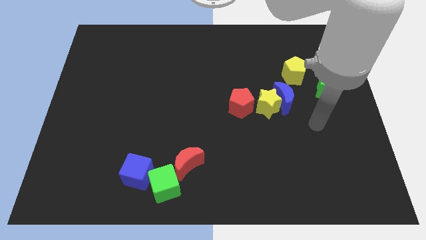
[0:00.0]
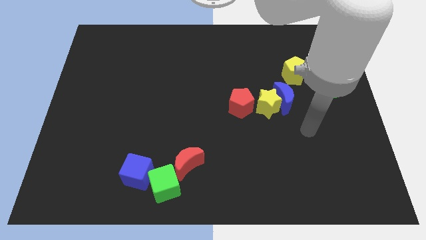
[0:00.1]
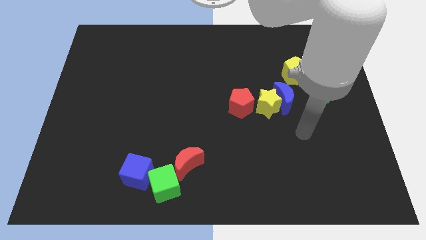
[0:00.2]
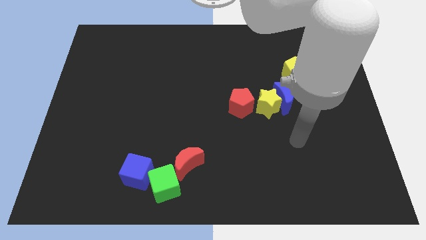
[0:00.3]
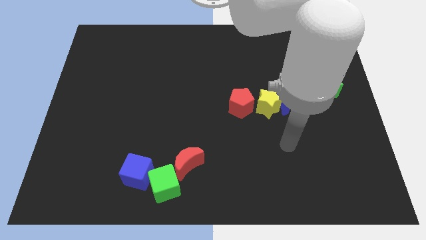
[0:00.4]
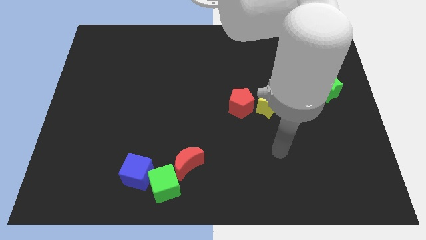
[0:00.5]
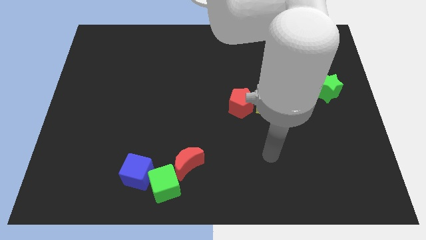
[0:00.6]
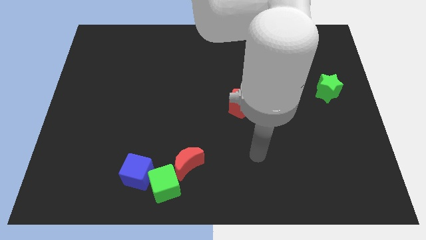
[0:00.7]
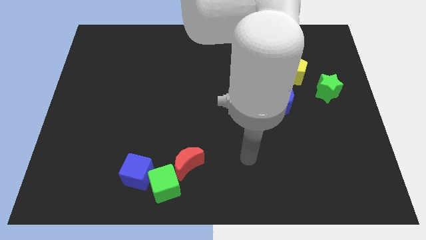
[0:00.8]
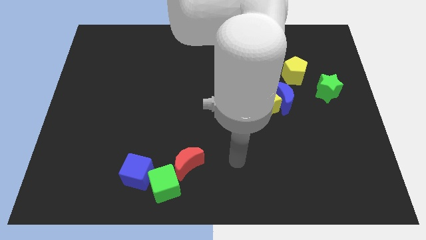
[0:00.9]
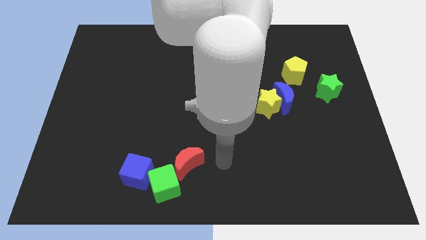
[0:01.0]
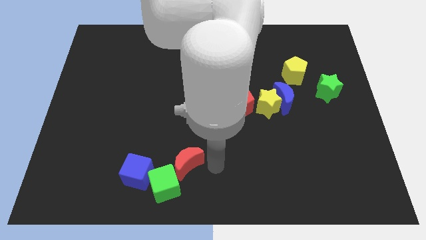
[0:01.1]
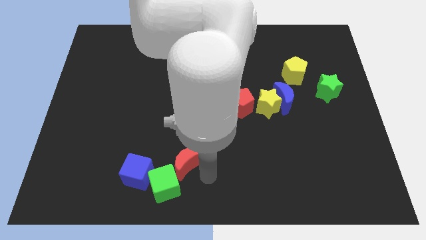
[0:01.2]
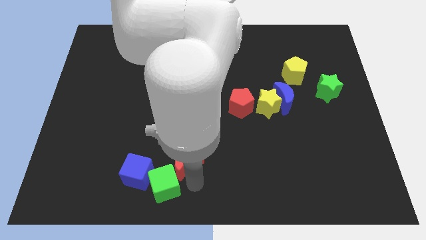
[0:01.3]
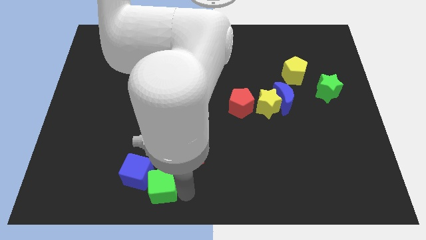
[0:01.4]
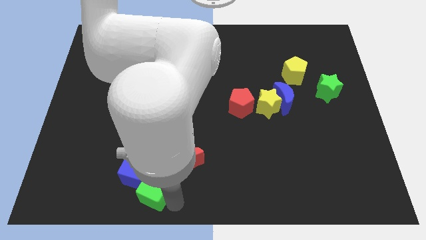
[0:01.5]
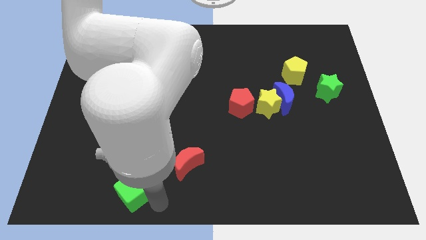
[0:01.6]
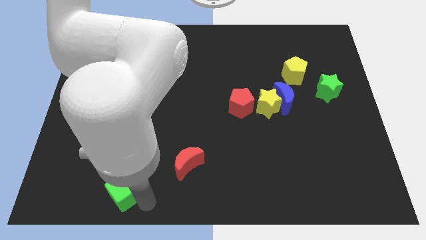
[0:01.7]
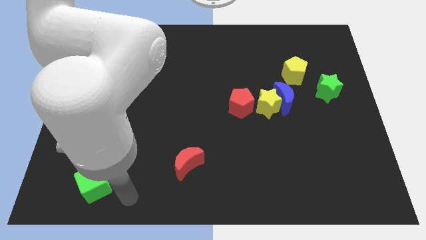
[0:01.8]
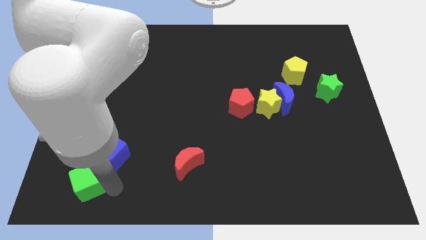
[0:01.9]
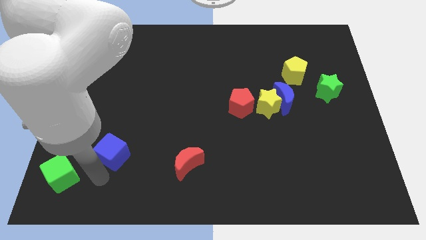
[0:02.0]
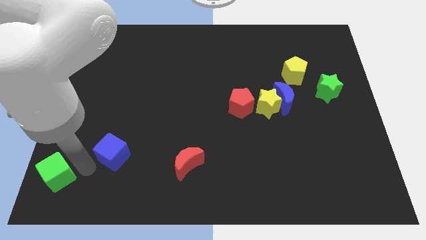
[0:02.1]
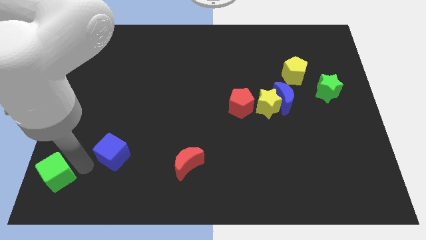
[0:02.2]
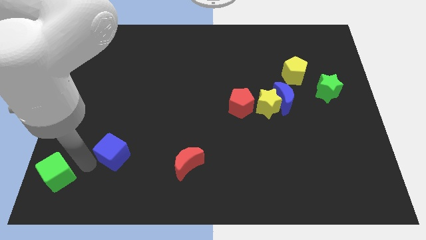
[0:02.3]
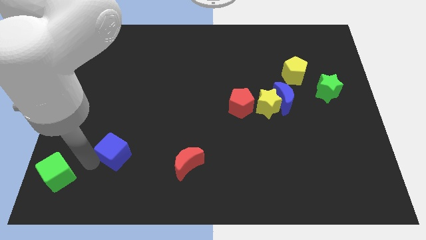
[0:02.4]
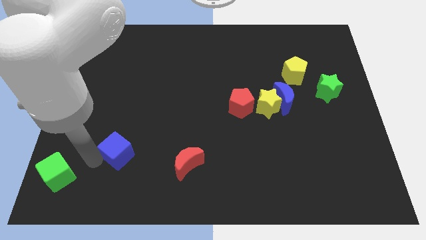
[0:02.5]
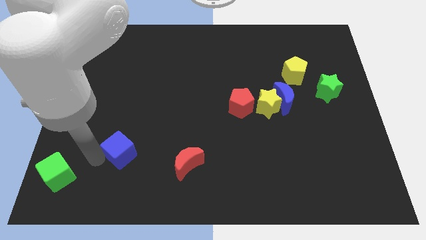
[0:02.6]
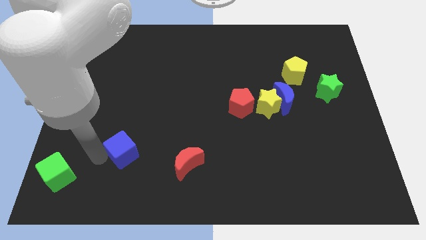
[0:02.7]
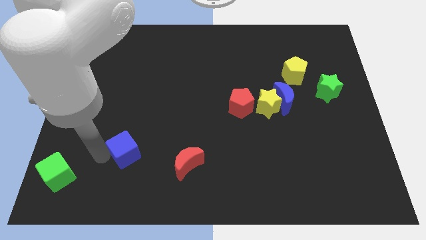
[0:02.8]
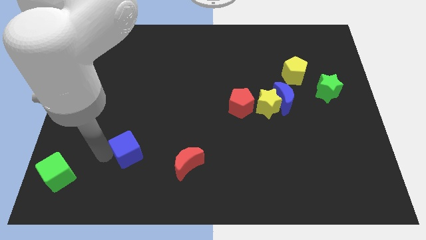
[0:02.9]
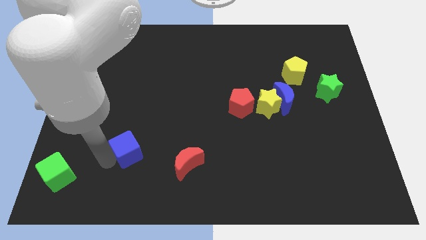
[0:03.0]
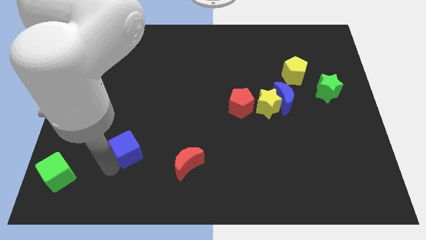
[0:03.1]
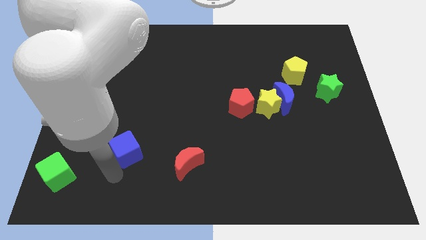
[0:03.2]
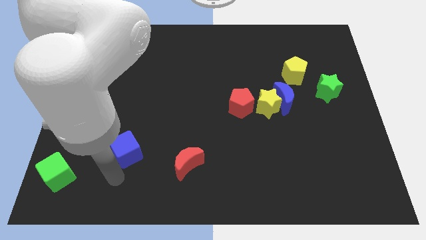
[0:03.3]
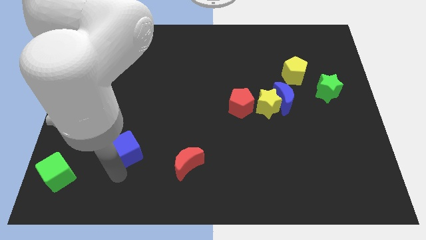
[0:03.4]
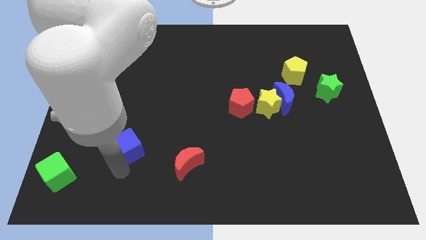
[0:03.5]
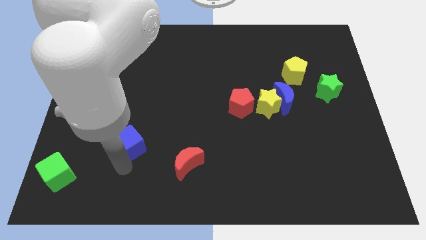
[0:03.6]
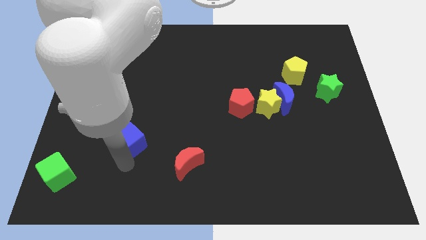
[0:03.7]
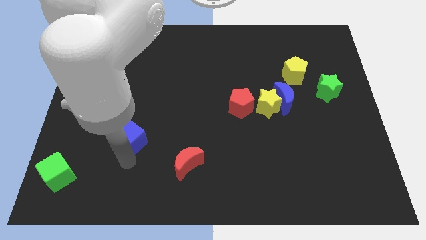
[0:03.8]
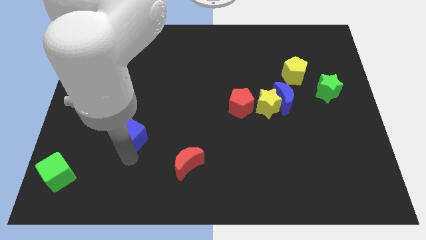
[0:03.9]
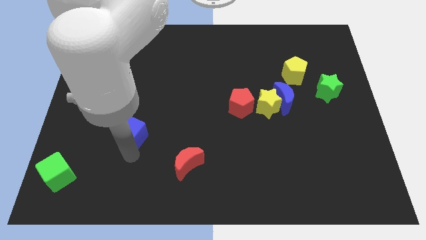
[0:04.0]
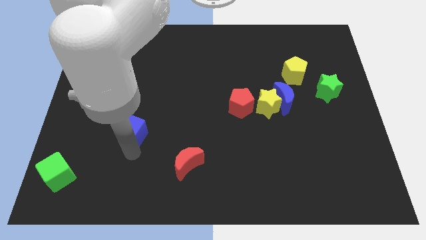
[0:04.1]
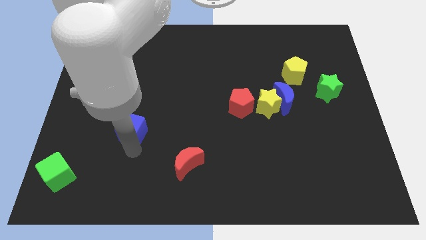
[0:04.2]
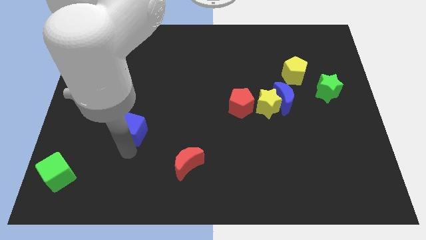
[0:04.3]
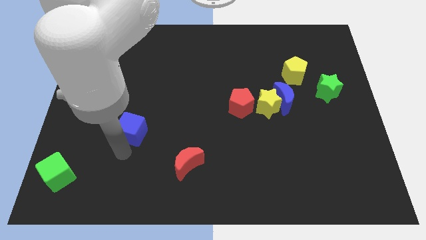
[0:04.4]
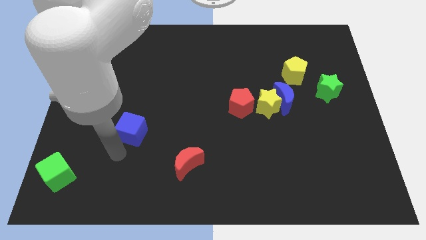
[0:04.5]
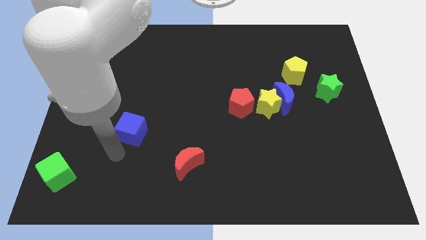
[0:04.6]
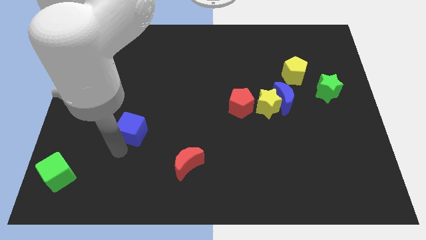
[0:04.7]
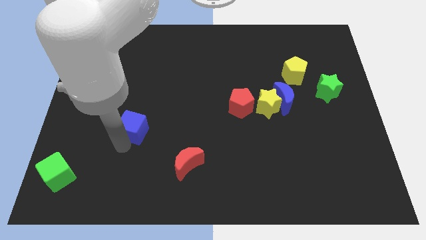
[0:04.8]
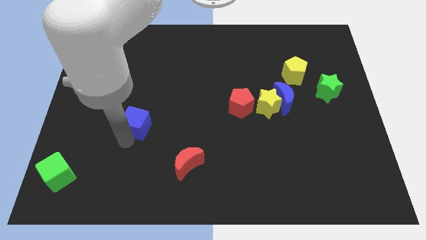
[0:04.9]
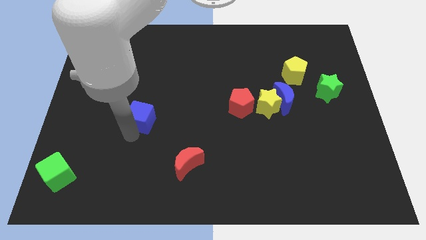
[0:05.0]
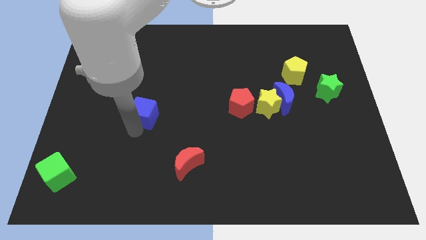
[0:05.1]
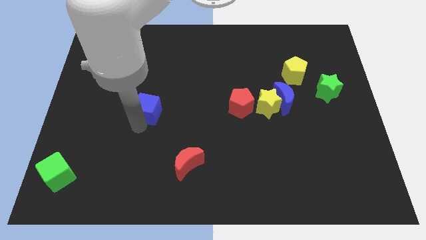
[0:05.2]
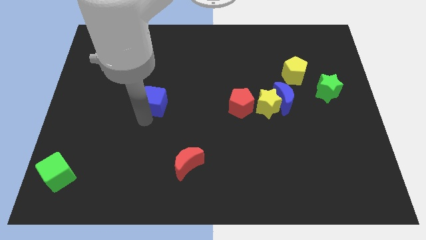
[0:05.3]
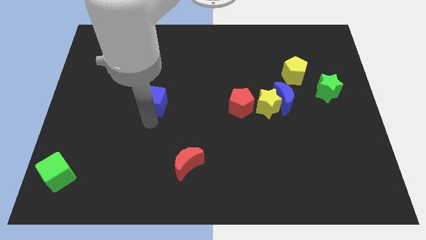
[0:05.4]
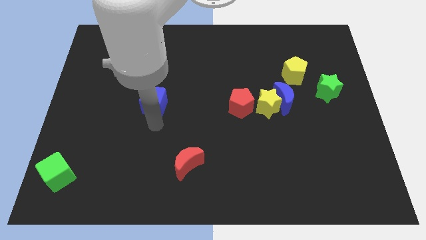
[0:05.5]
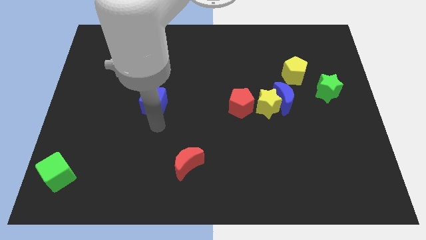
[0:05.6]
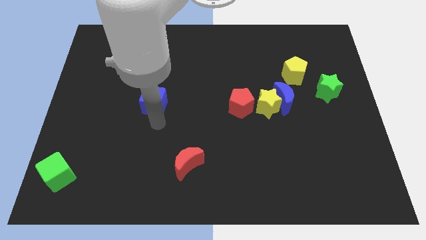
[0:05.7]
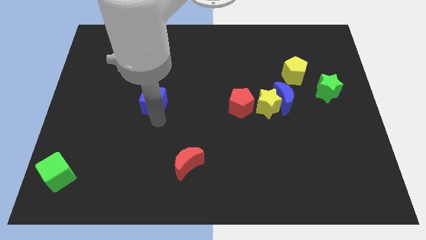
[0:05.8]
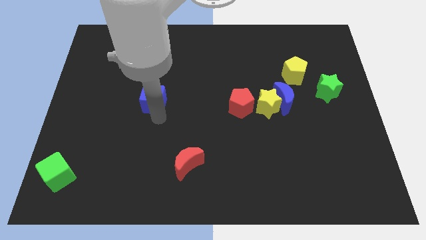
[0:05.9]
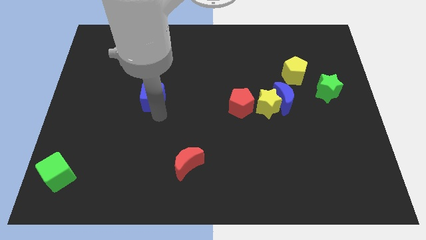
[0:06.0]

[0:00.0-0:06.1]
move the blue cube upwards

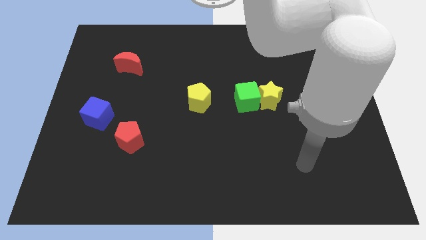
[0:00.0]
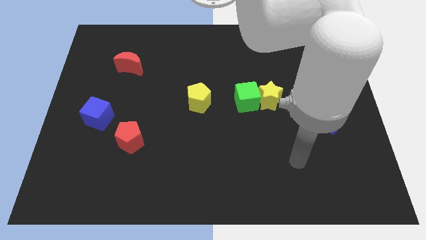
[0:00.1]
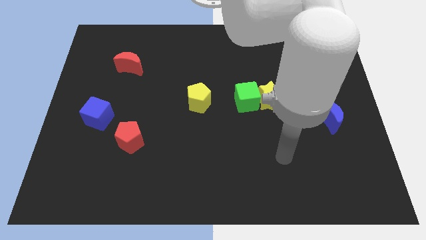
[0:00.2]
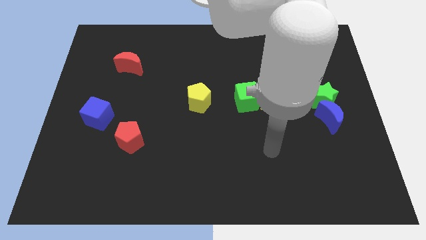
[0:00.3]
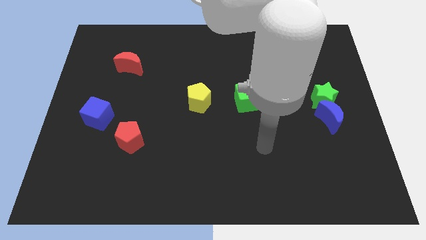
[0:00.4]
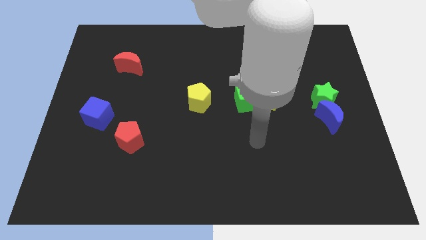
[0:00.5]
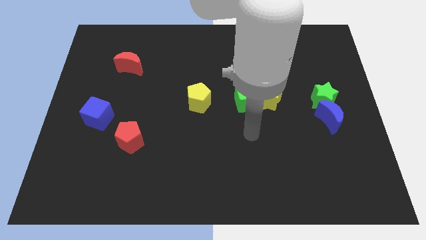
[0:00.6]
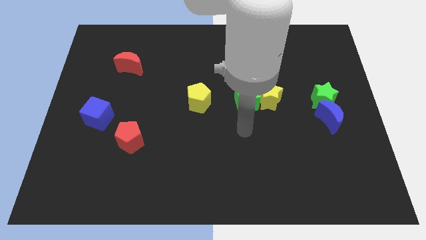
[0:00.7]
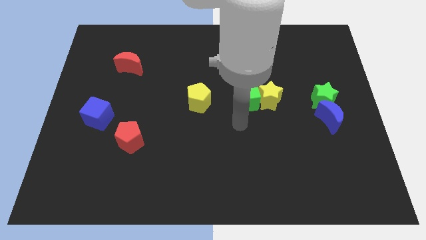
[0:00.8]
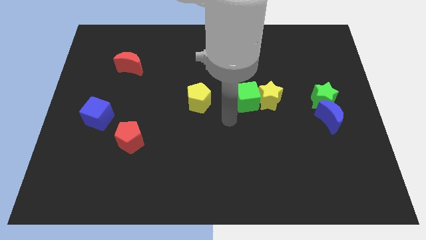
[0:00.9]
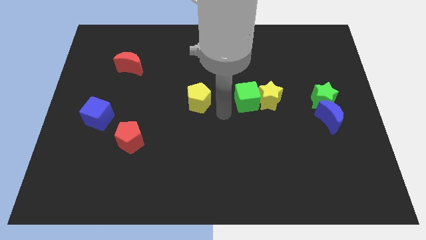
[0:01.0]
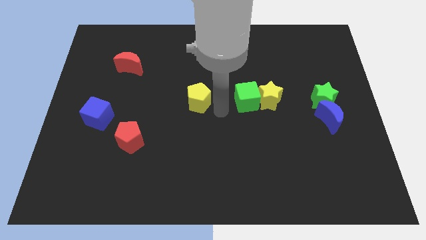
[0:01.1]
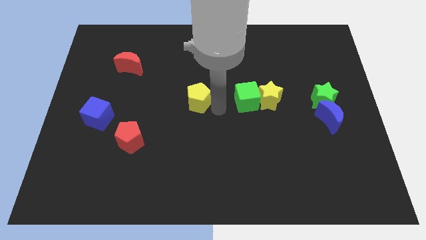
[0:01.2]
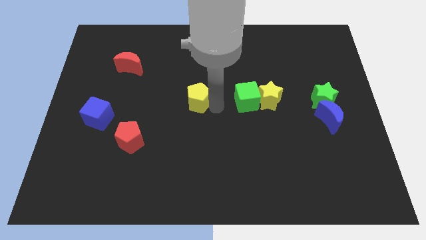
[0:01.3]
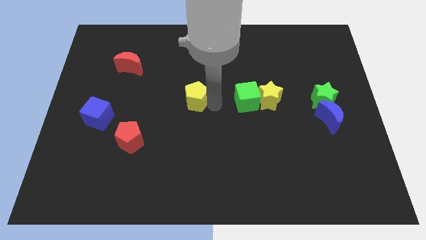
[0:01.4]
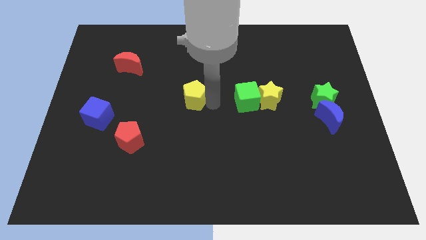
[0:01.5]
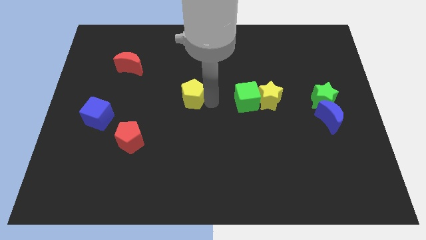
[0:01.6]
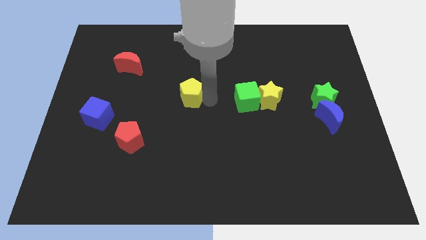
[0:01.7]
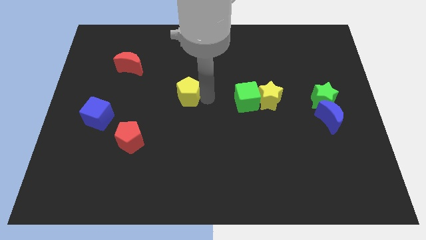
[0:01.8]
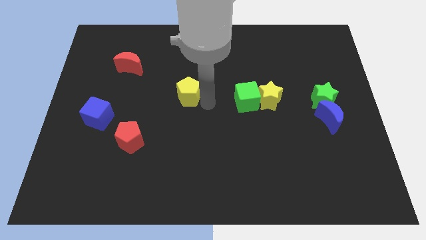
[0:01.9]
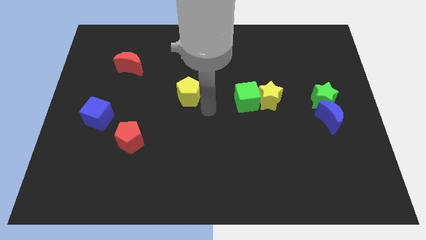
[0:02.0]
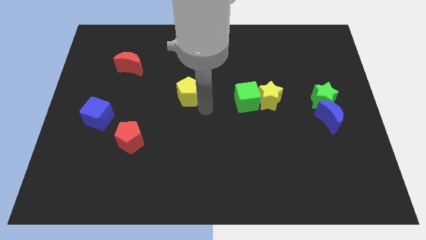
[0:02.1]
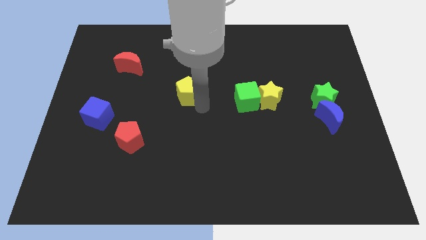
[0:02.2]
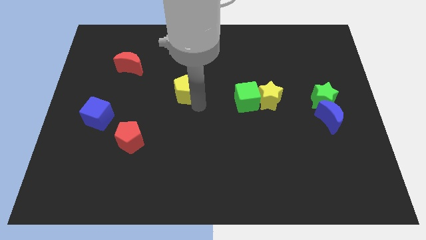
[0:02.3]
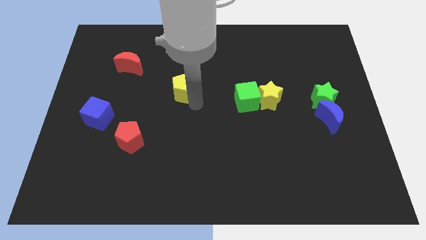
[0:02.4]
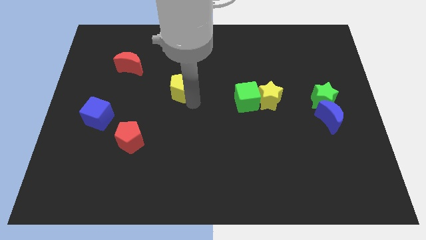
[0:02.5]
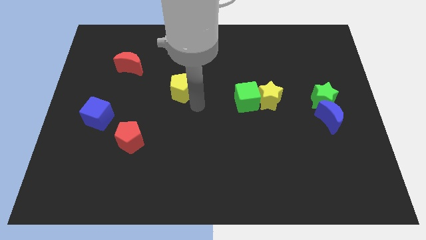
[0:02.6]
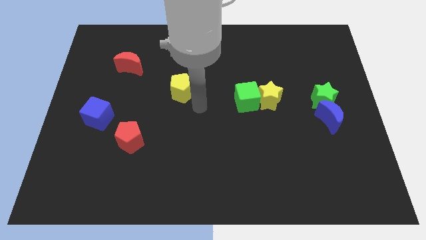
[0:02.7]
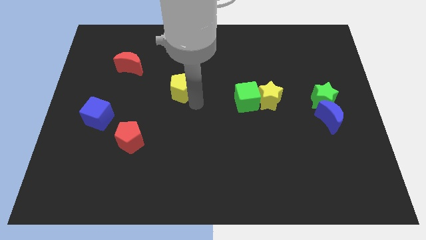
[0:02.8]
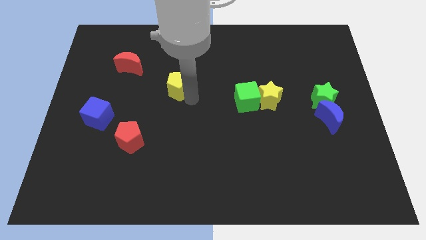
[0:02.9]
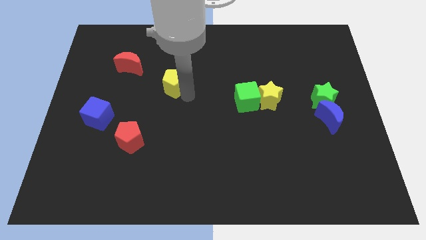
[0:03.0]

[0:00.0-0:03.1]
slide the yellow pentagon a little bit up and to the left
